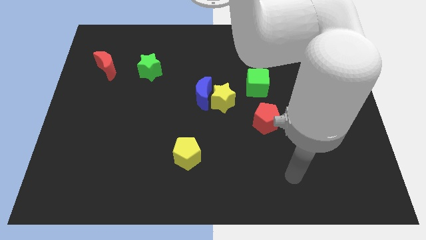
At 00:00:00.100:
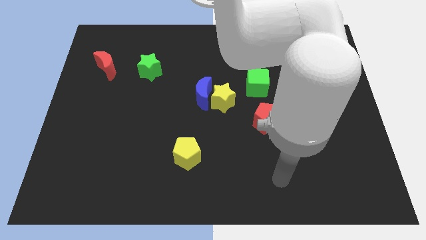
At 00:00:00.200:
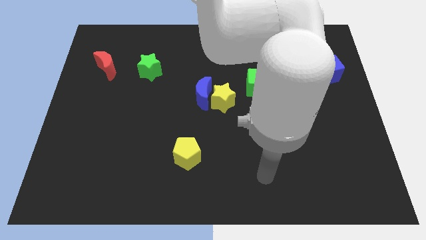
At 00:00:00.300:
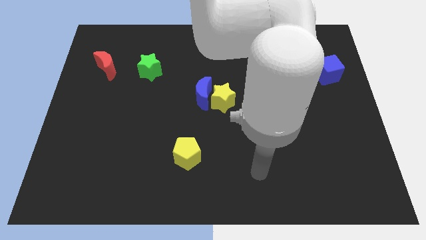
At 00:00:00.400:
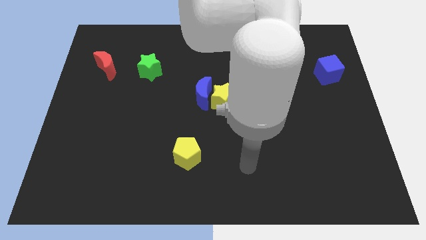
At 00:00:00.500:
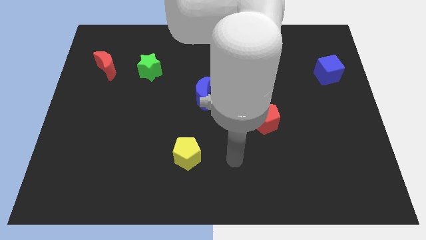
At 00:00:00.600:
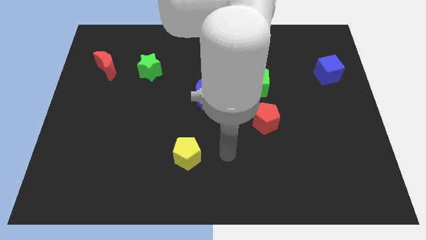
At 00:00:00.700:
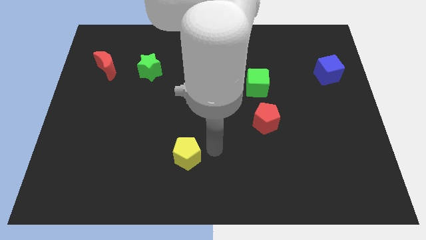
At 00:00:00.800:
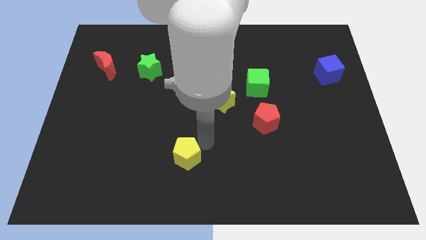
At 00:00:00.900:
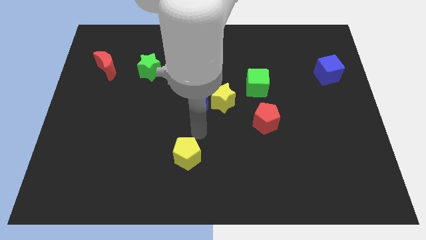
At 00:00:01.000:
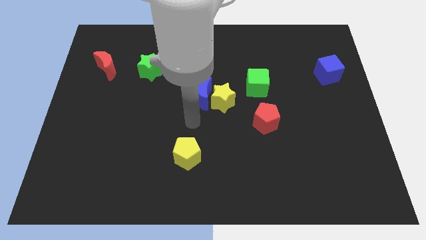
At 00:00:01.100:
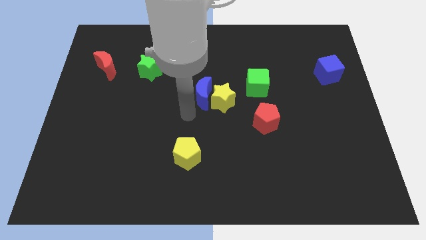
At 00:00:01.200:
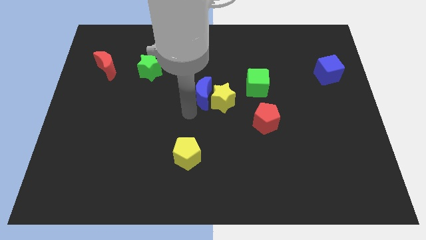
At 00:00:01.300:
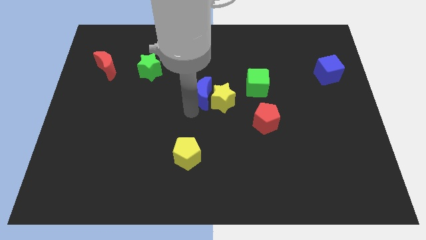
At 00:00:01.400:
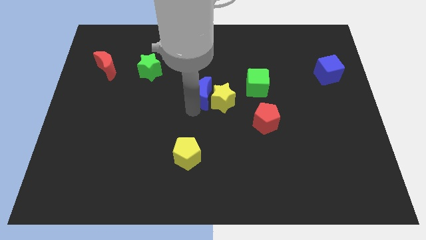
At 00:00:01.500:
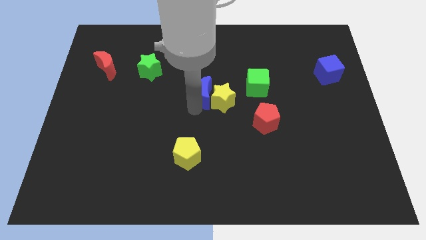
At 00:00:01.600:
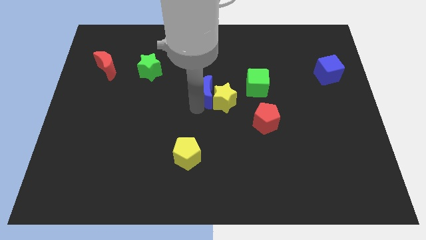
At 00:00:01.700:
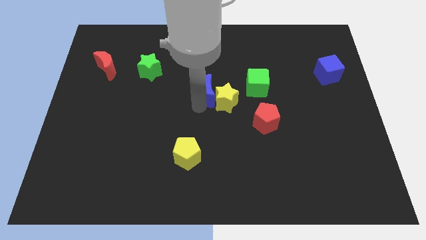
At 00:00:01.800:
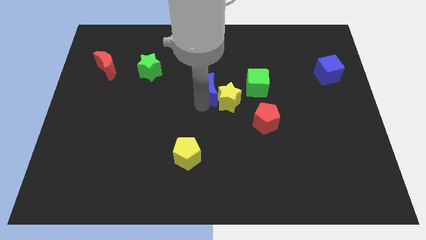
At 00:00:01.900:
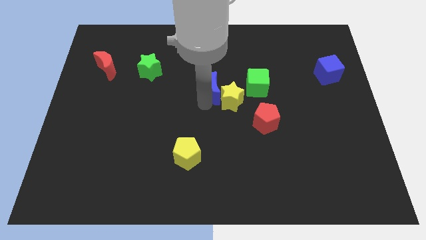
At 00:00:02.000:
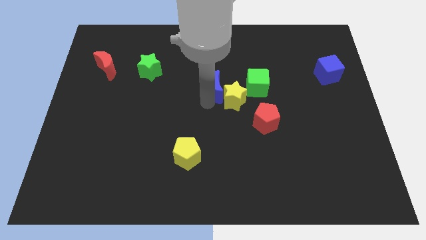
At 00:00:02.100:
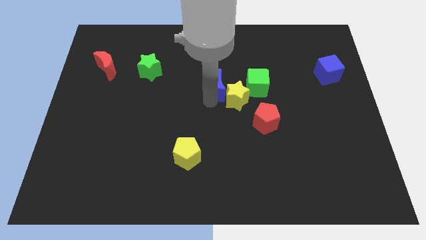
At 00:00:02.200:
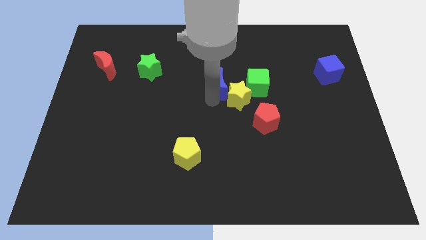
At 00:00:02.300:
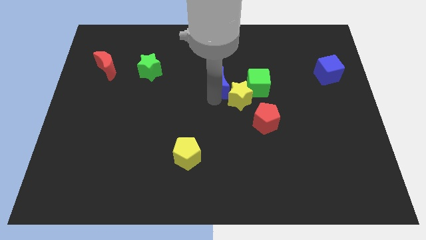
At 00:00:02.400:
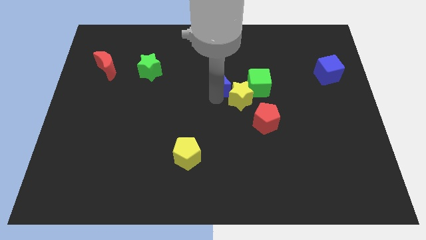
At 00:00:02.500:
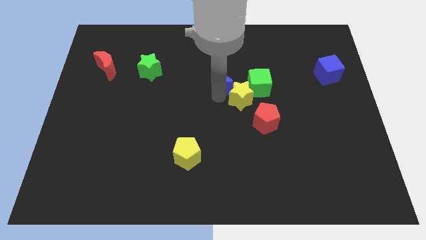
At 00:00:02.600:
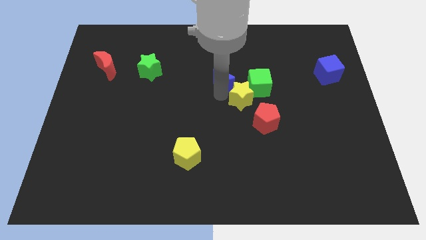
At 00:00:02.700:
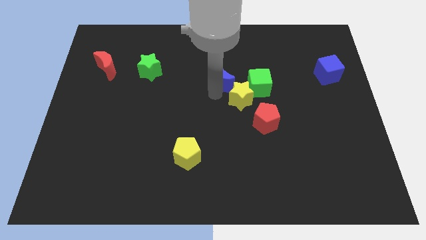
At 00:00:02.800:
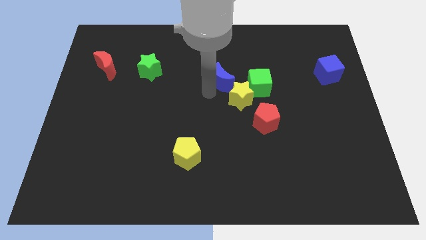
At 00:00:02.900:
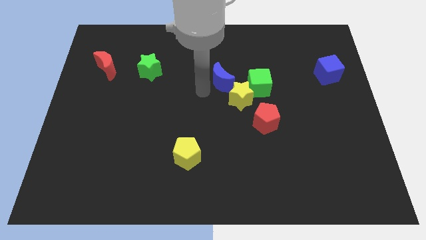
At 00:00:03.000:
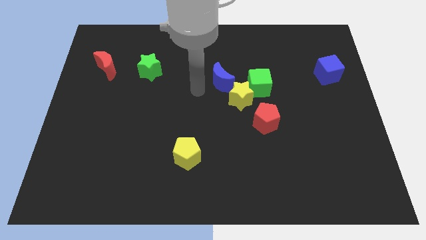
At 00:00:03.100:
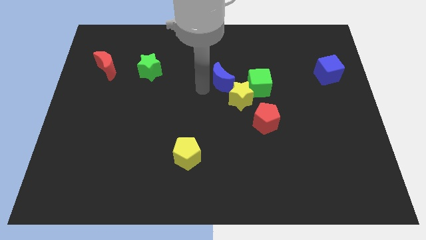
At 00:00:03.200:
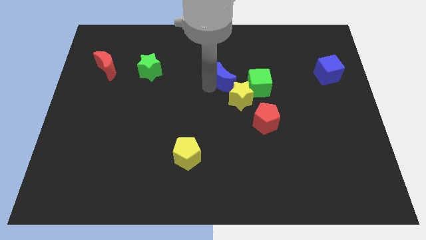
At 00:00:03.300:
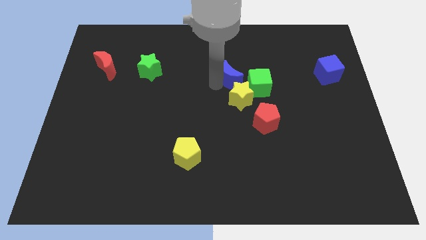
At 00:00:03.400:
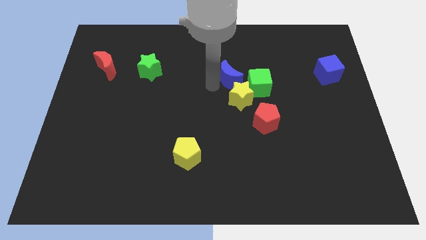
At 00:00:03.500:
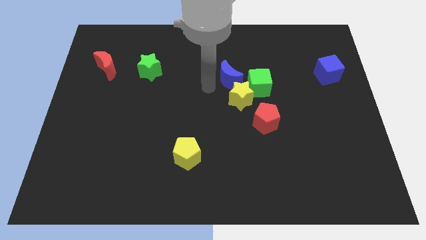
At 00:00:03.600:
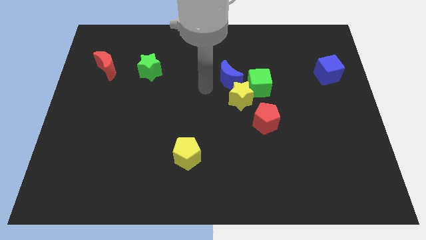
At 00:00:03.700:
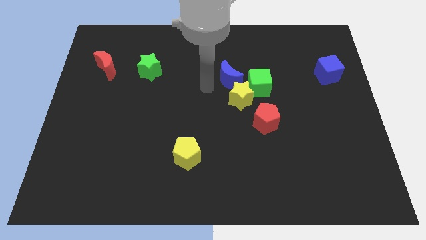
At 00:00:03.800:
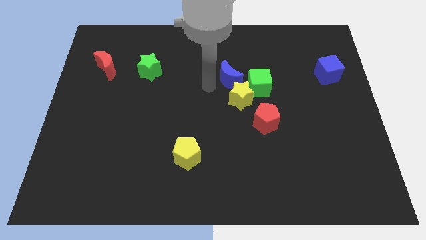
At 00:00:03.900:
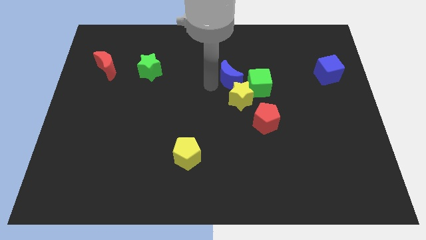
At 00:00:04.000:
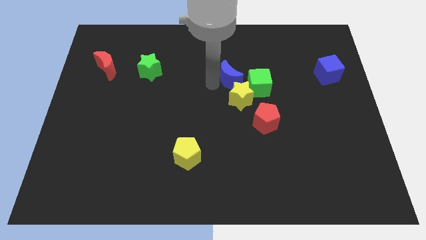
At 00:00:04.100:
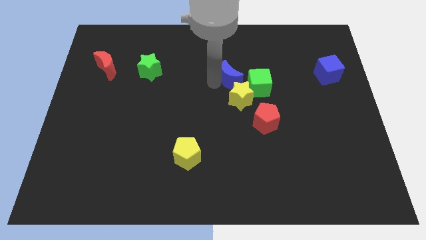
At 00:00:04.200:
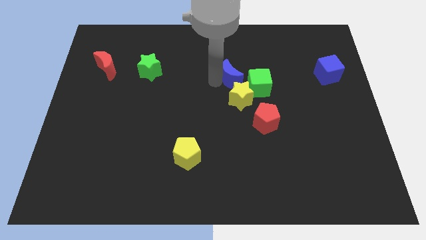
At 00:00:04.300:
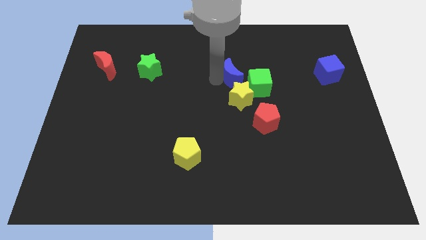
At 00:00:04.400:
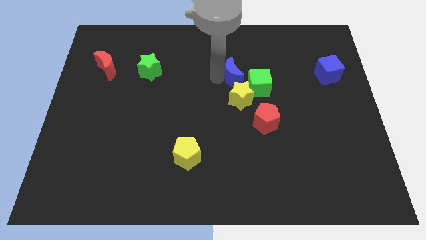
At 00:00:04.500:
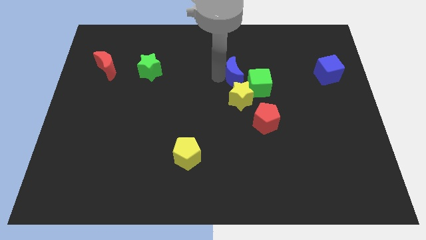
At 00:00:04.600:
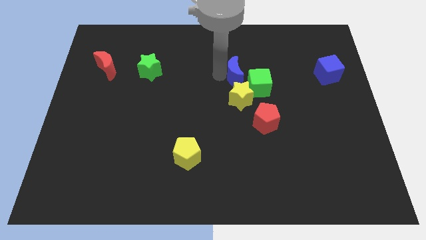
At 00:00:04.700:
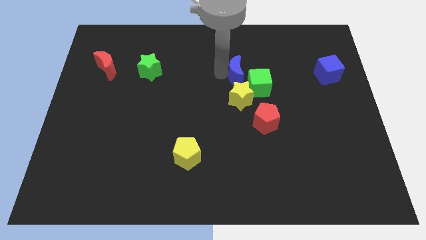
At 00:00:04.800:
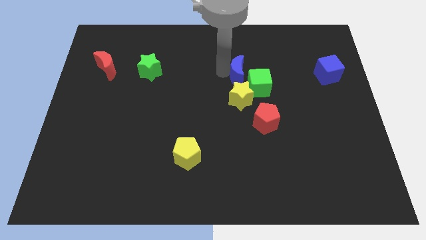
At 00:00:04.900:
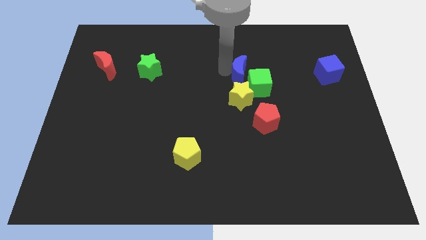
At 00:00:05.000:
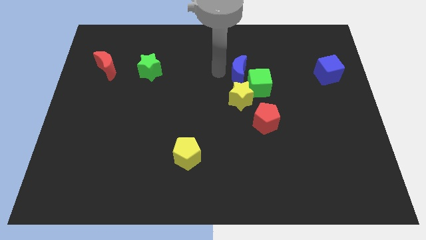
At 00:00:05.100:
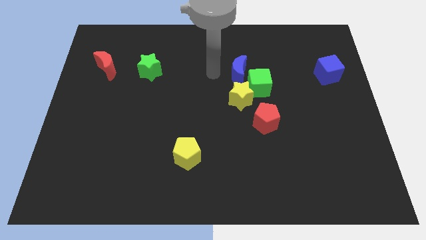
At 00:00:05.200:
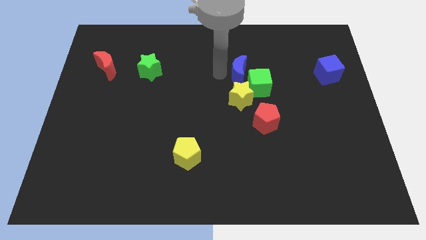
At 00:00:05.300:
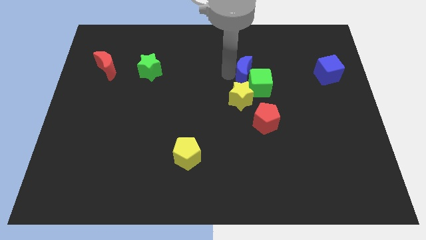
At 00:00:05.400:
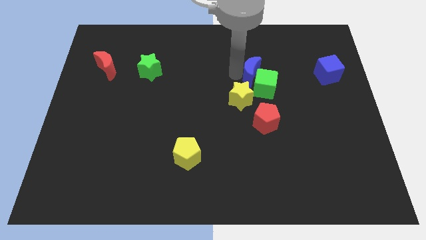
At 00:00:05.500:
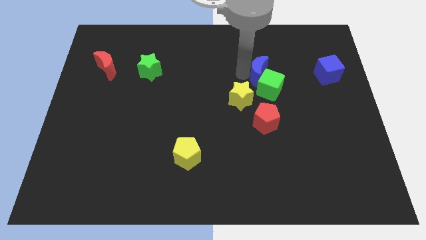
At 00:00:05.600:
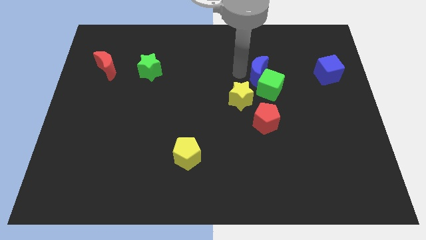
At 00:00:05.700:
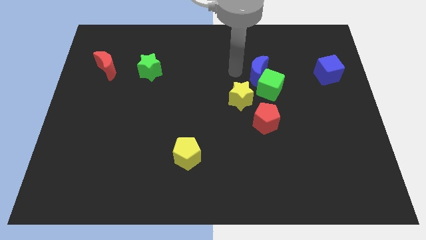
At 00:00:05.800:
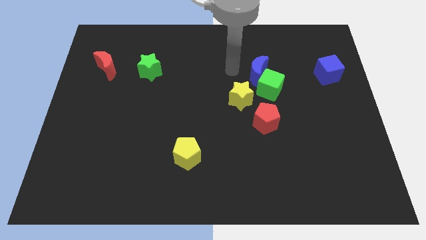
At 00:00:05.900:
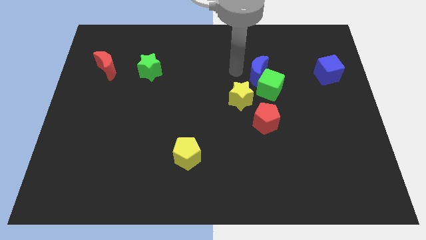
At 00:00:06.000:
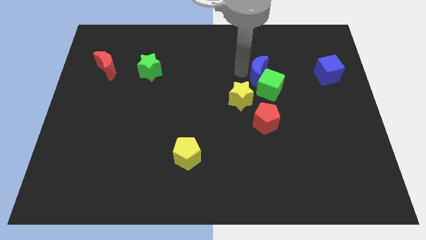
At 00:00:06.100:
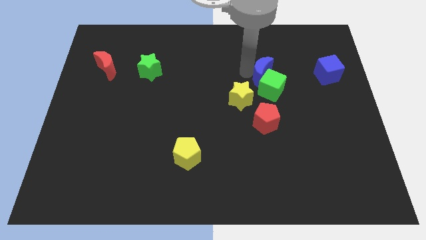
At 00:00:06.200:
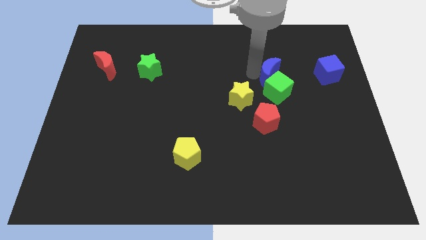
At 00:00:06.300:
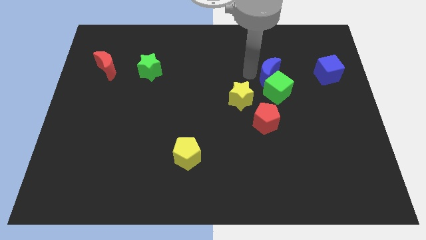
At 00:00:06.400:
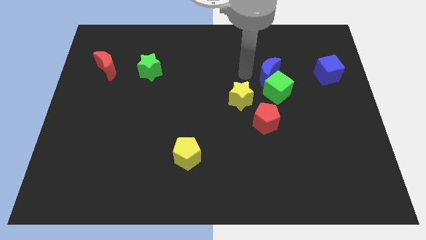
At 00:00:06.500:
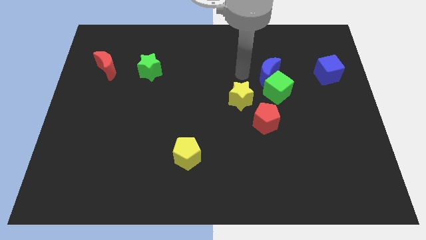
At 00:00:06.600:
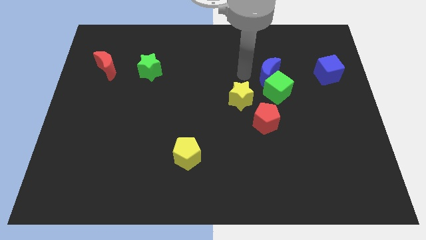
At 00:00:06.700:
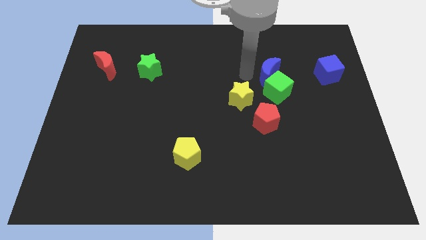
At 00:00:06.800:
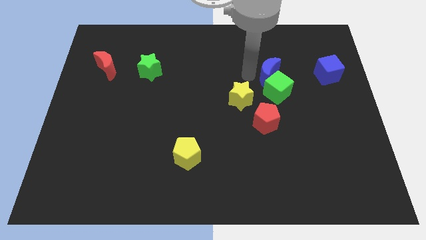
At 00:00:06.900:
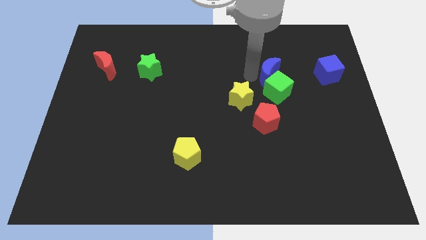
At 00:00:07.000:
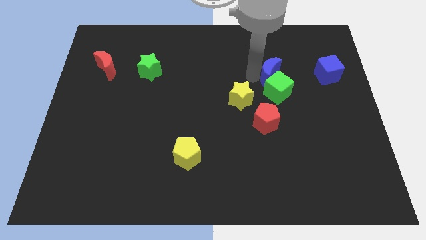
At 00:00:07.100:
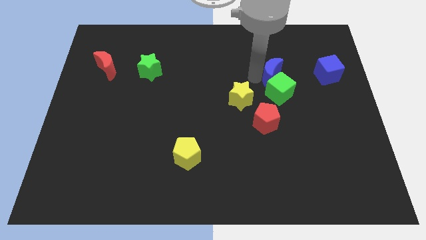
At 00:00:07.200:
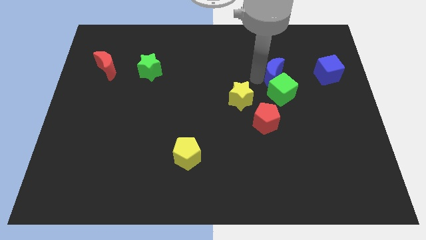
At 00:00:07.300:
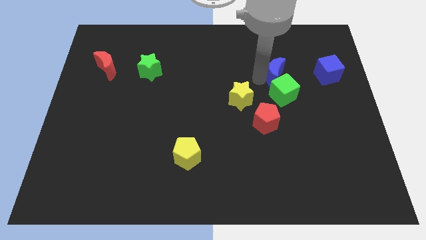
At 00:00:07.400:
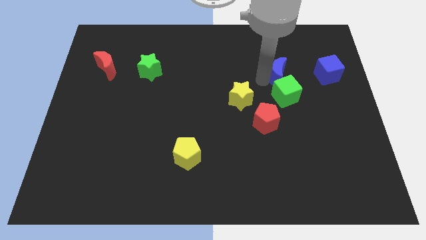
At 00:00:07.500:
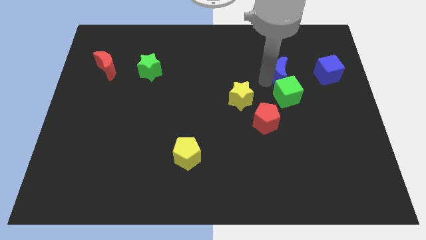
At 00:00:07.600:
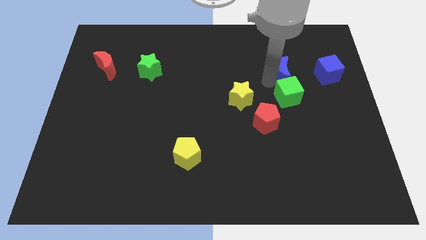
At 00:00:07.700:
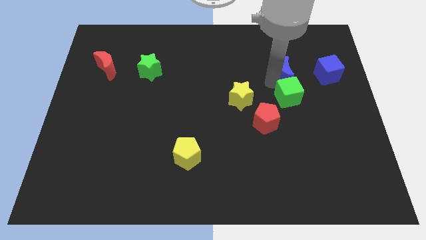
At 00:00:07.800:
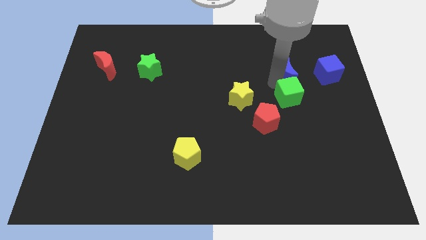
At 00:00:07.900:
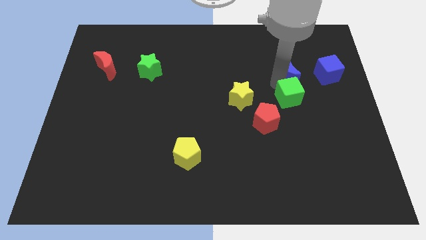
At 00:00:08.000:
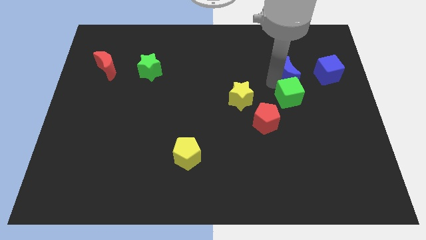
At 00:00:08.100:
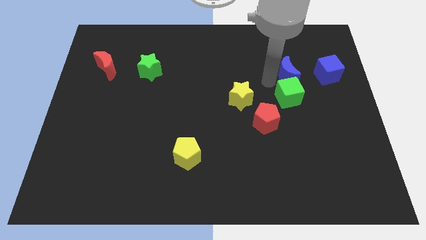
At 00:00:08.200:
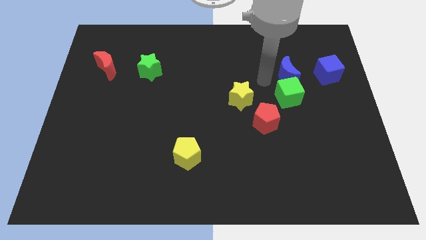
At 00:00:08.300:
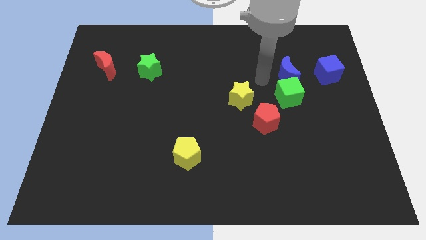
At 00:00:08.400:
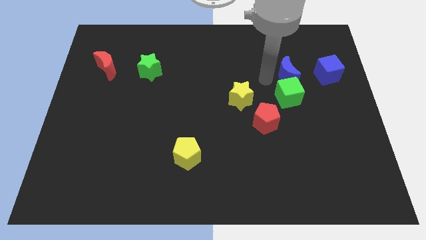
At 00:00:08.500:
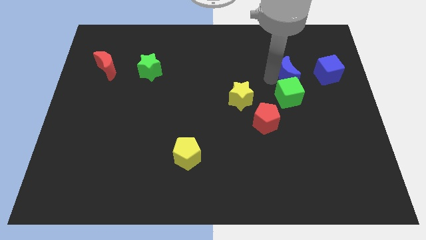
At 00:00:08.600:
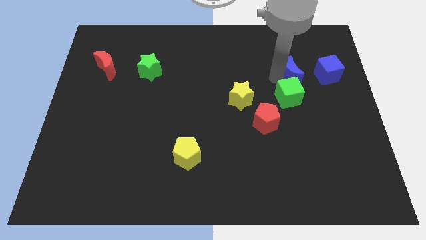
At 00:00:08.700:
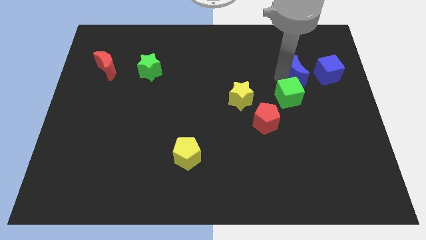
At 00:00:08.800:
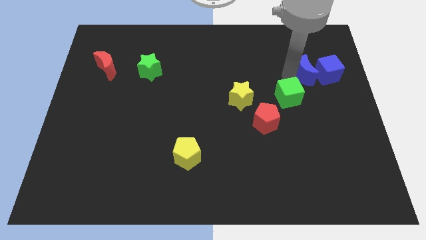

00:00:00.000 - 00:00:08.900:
put the blue moon close to the blue cube
